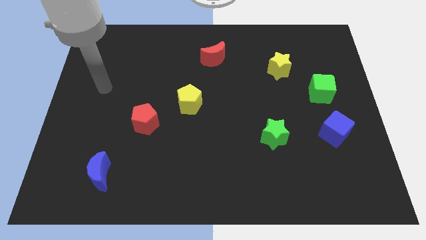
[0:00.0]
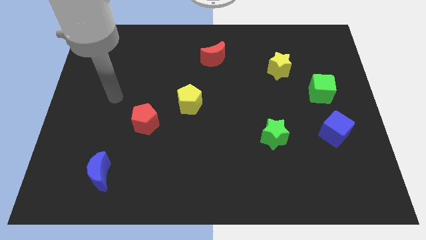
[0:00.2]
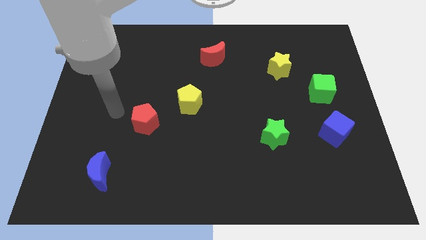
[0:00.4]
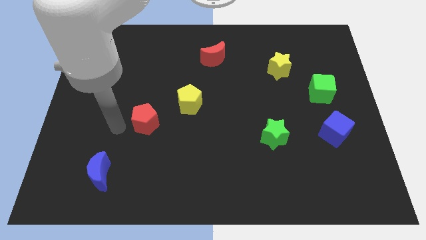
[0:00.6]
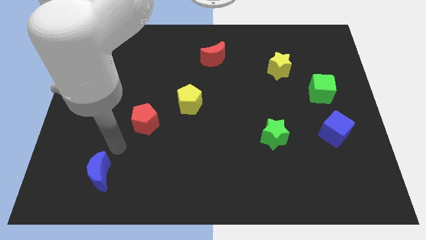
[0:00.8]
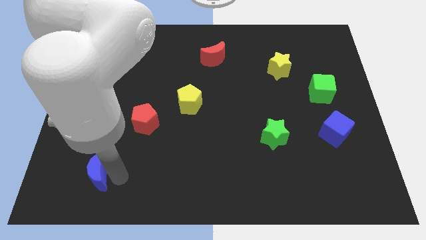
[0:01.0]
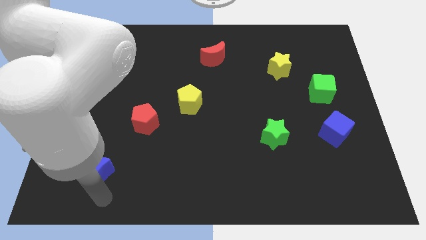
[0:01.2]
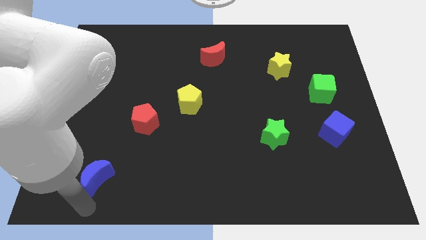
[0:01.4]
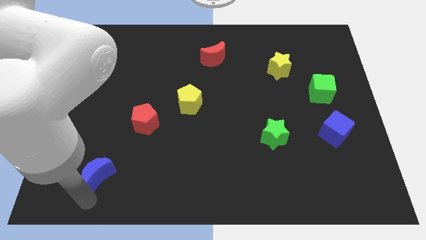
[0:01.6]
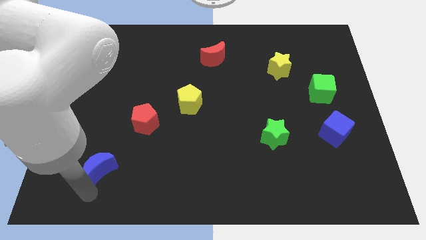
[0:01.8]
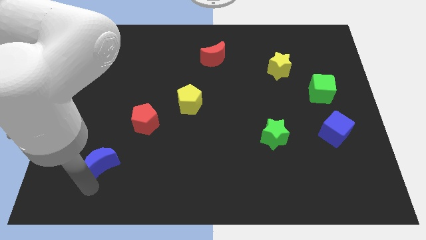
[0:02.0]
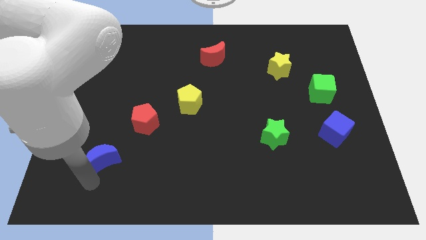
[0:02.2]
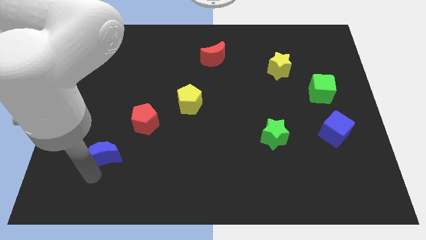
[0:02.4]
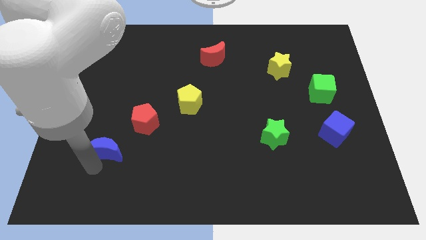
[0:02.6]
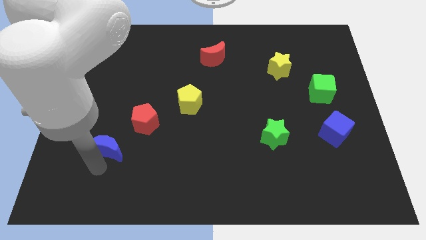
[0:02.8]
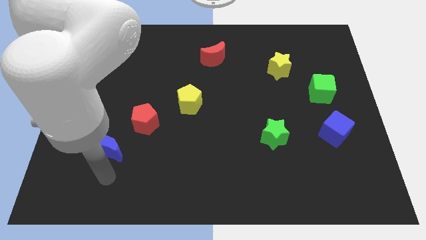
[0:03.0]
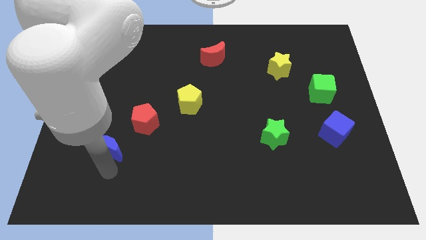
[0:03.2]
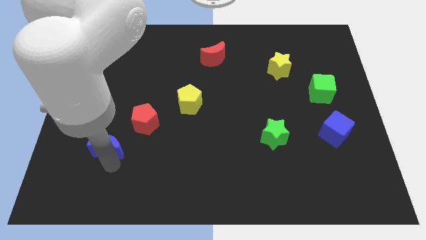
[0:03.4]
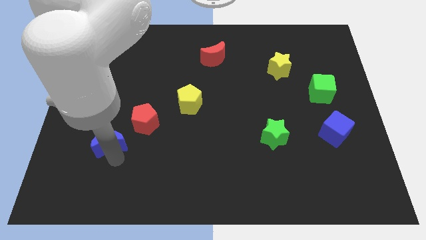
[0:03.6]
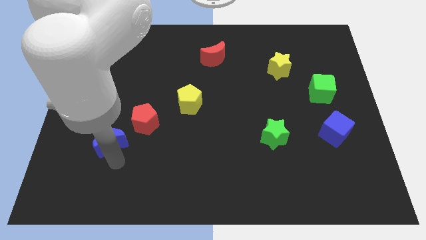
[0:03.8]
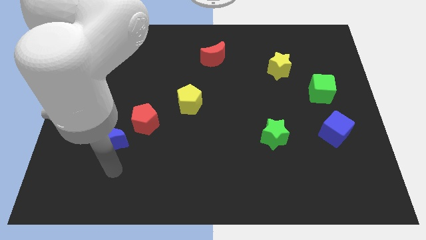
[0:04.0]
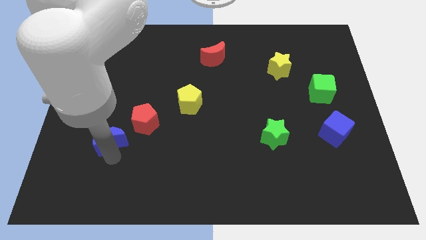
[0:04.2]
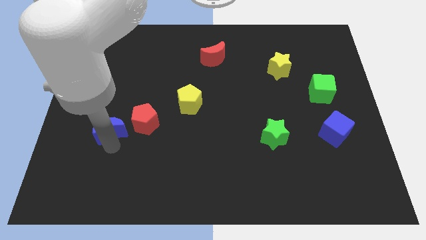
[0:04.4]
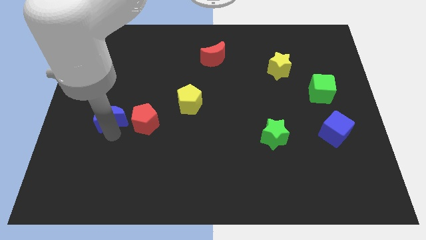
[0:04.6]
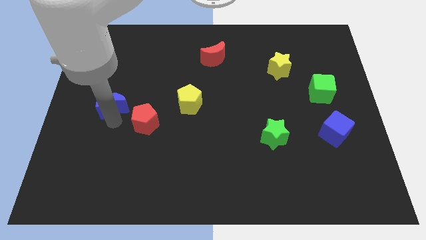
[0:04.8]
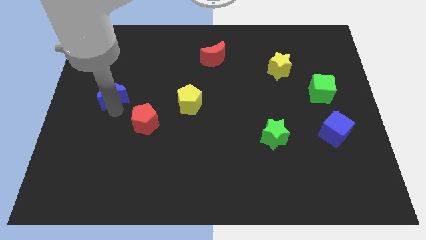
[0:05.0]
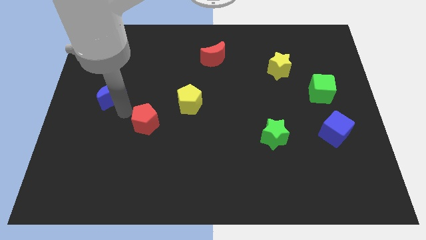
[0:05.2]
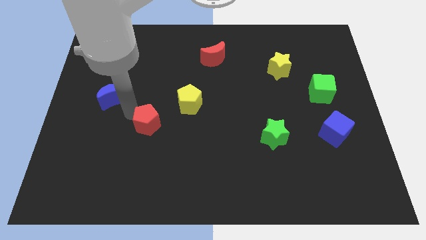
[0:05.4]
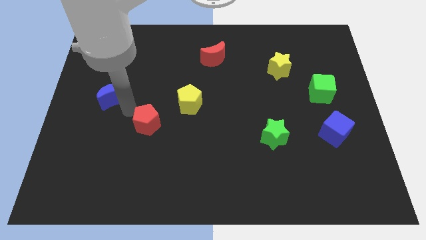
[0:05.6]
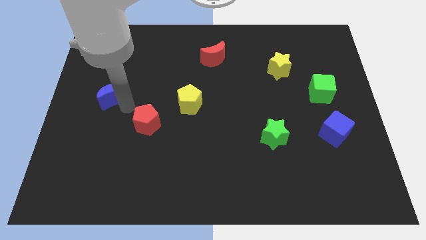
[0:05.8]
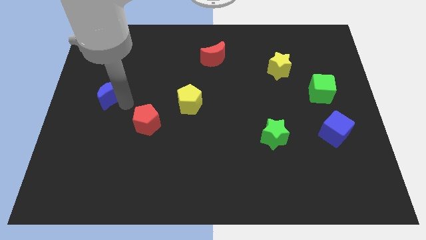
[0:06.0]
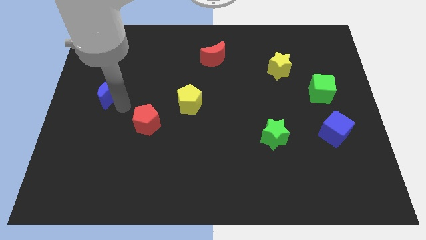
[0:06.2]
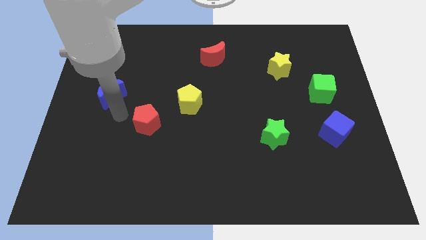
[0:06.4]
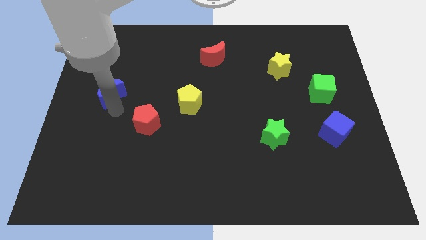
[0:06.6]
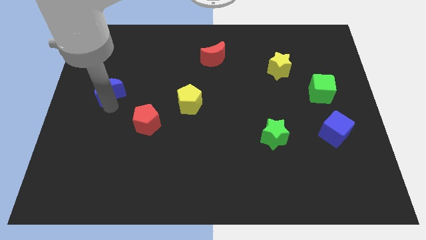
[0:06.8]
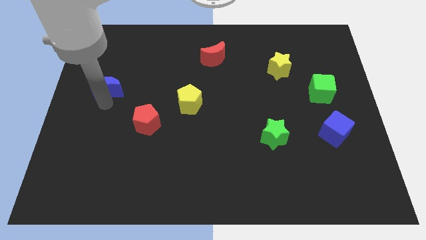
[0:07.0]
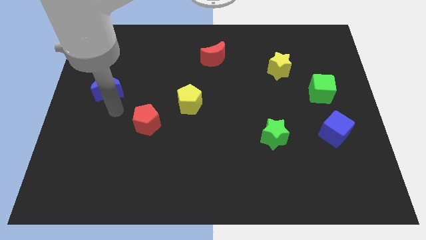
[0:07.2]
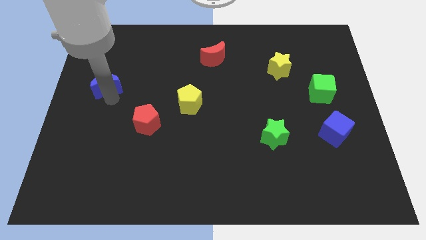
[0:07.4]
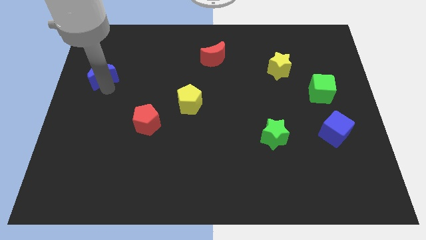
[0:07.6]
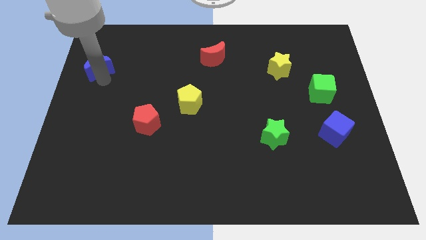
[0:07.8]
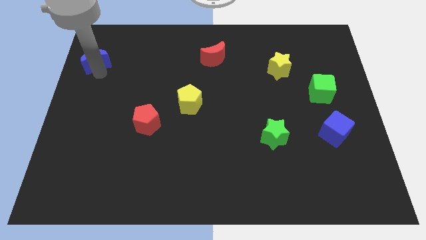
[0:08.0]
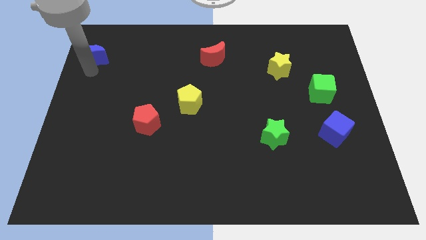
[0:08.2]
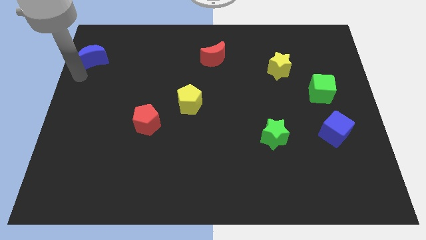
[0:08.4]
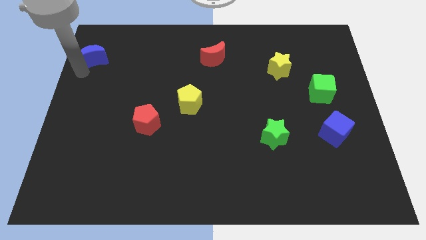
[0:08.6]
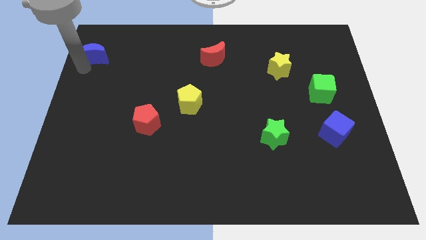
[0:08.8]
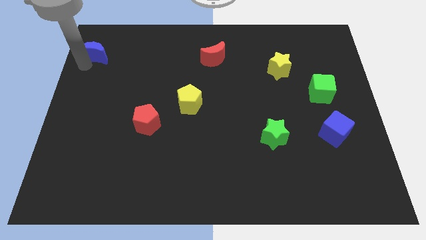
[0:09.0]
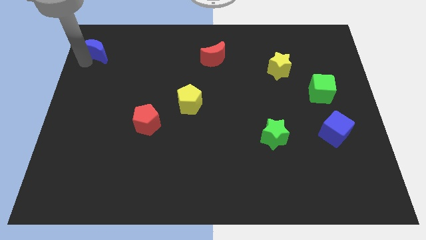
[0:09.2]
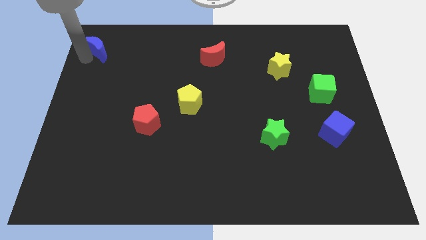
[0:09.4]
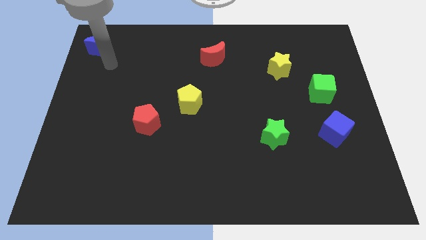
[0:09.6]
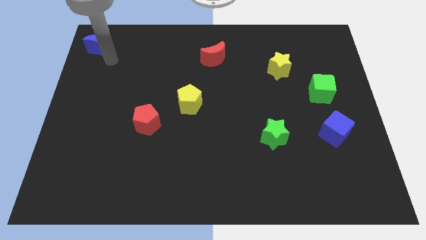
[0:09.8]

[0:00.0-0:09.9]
slide the blue moon to the upper left corner

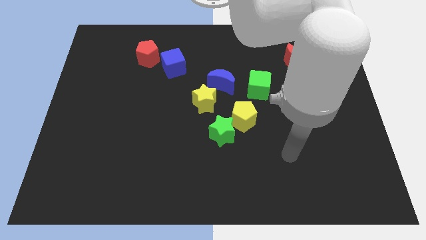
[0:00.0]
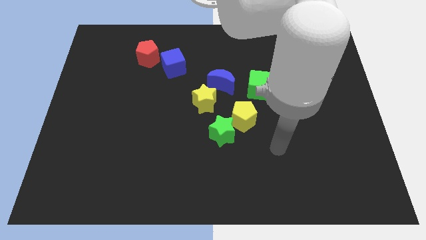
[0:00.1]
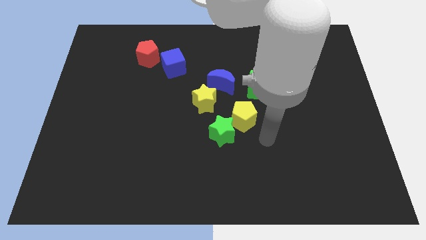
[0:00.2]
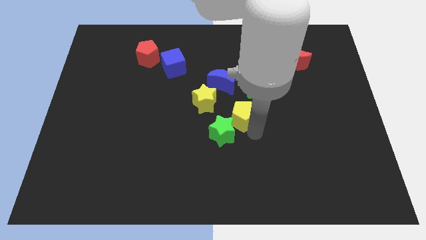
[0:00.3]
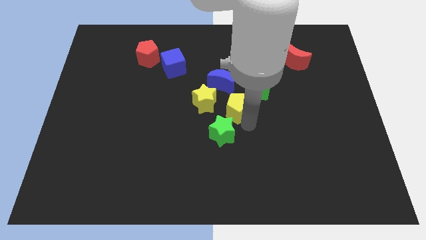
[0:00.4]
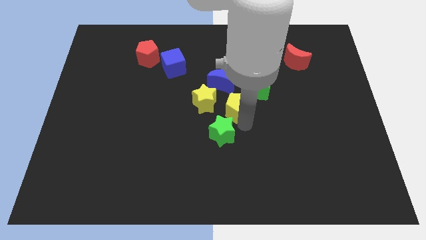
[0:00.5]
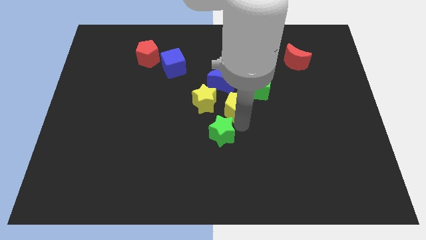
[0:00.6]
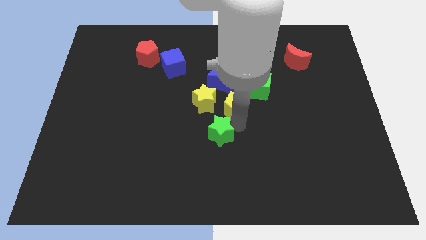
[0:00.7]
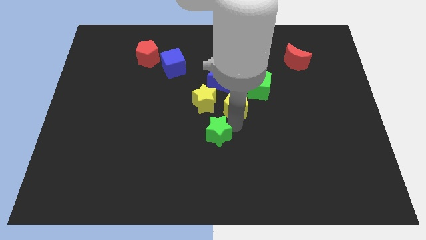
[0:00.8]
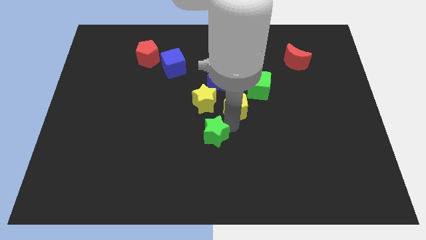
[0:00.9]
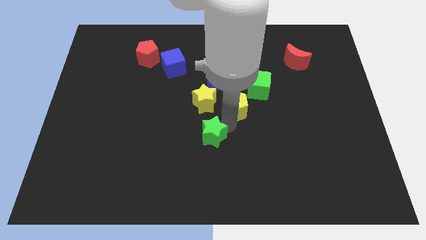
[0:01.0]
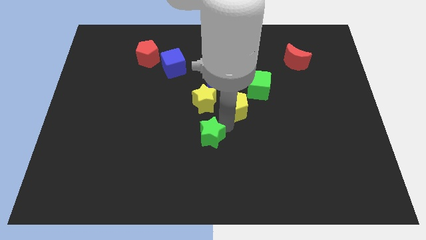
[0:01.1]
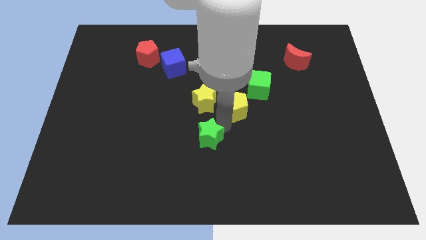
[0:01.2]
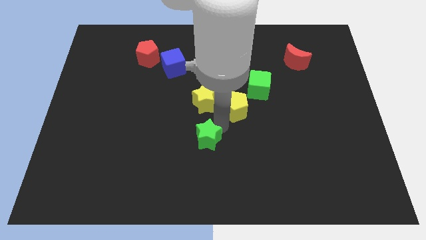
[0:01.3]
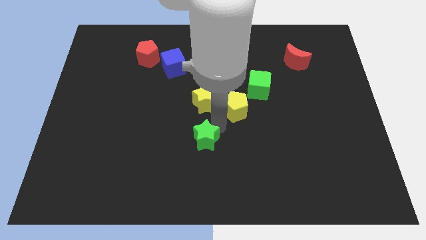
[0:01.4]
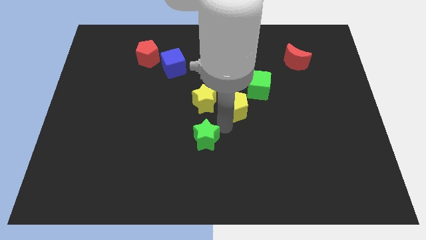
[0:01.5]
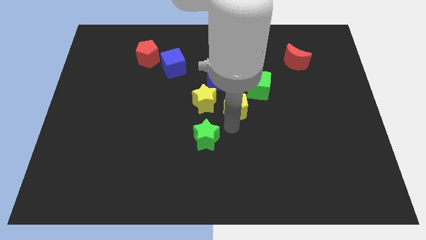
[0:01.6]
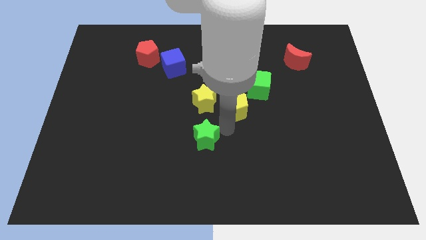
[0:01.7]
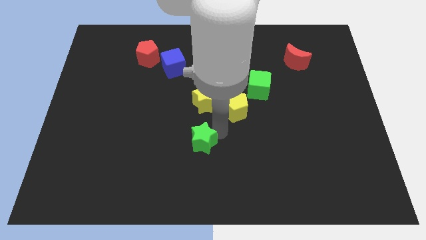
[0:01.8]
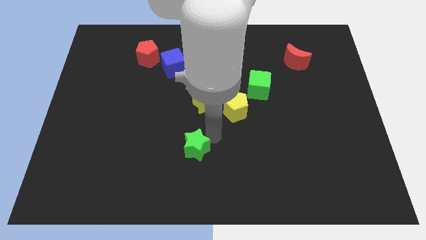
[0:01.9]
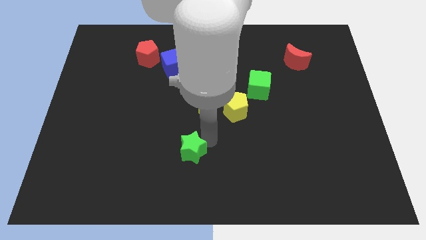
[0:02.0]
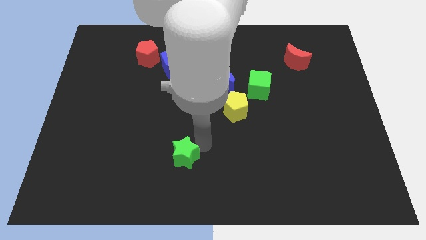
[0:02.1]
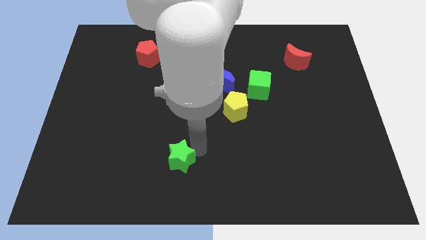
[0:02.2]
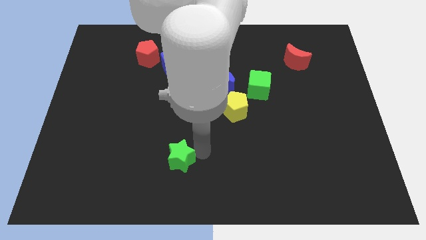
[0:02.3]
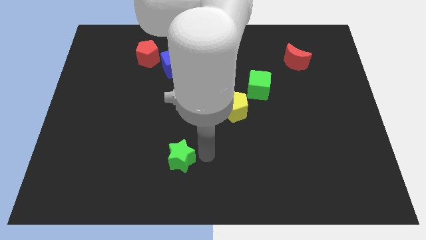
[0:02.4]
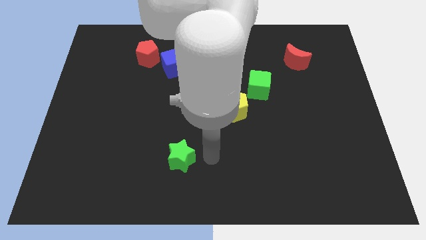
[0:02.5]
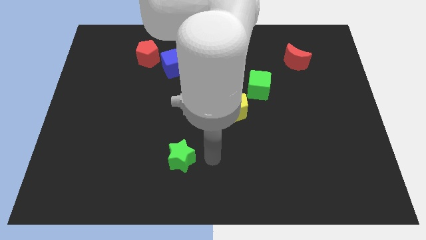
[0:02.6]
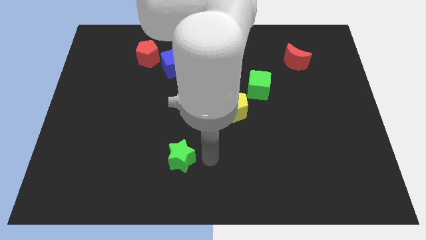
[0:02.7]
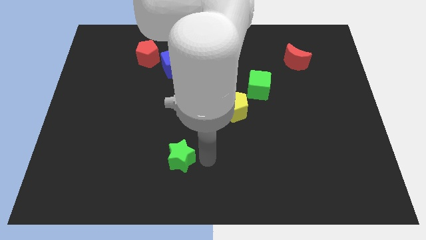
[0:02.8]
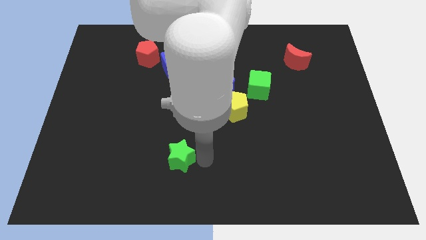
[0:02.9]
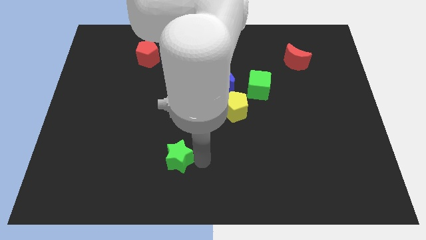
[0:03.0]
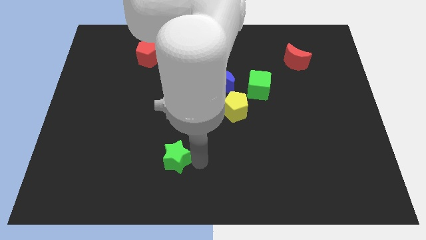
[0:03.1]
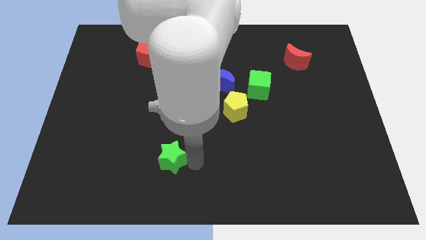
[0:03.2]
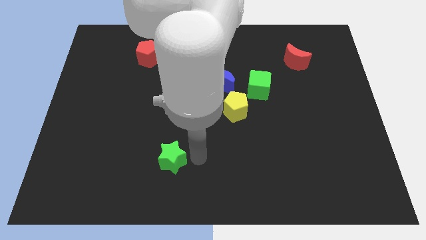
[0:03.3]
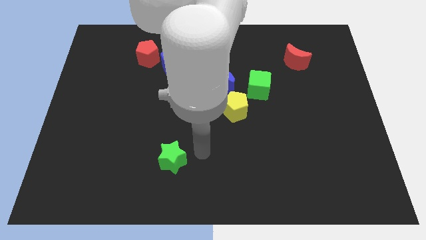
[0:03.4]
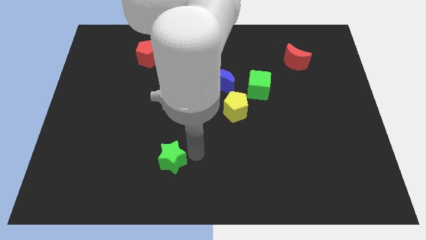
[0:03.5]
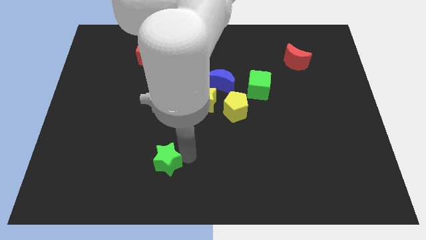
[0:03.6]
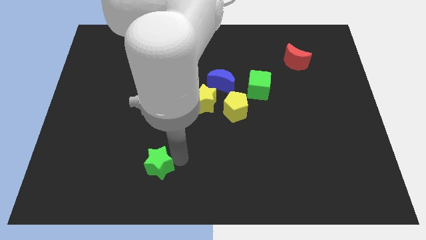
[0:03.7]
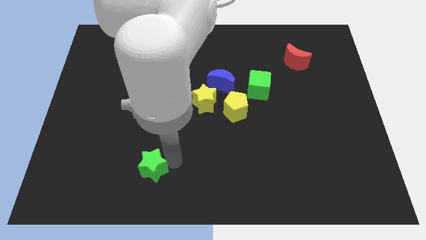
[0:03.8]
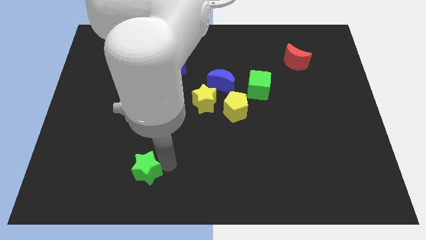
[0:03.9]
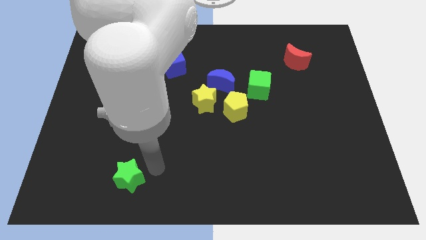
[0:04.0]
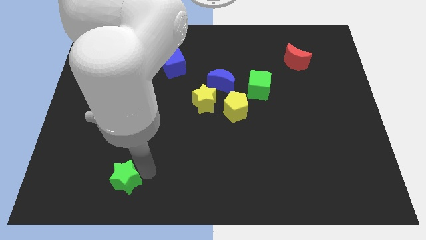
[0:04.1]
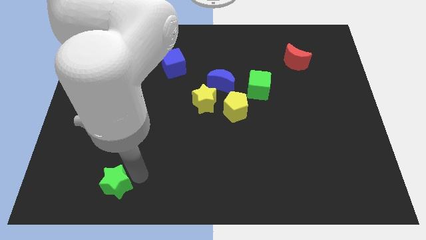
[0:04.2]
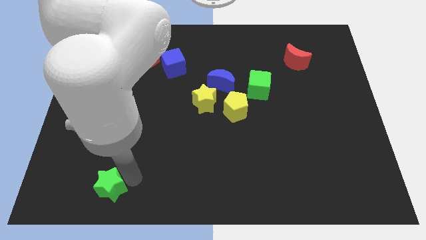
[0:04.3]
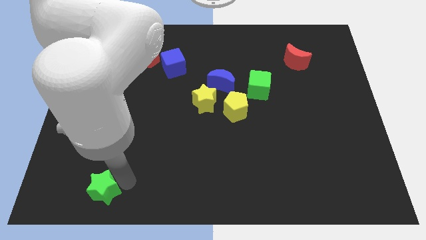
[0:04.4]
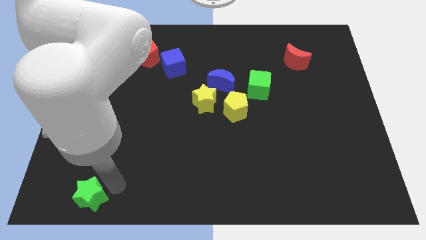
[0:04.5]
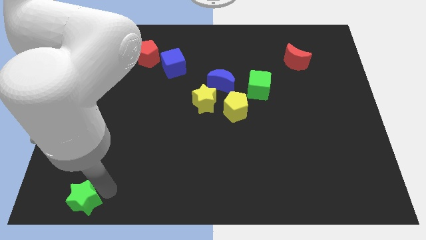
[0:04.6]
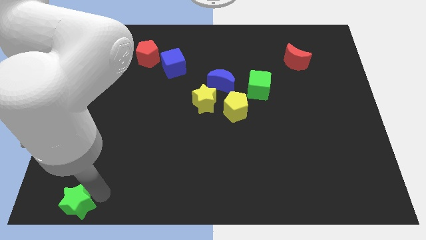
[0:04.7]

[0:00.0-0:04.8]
move the green star to the bottom left corner
